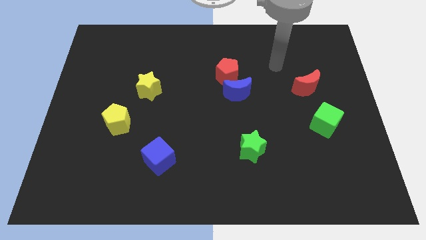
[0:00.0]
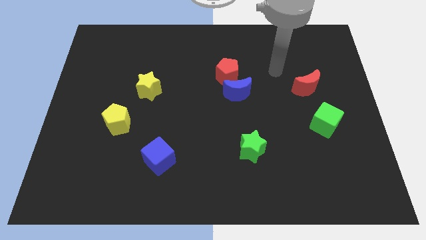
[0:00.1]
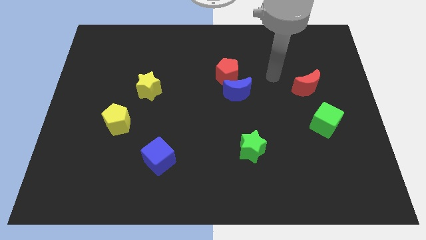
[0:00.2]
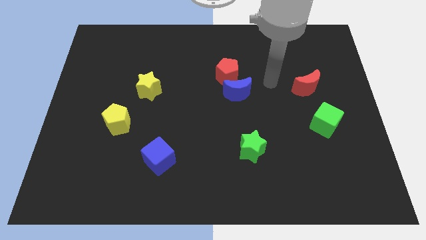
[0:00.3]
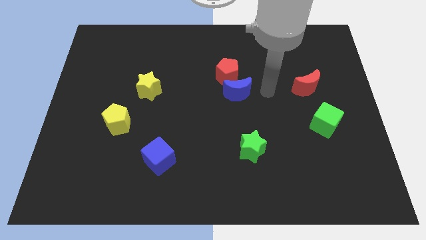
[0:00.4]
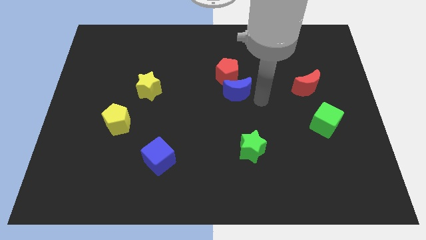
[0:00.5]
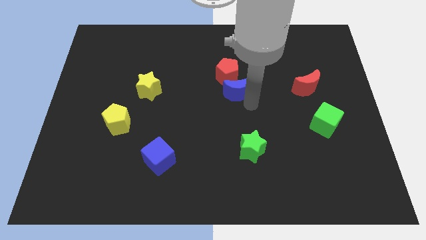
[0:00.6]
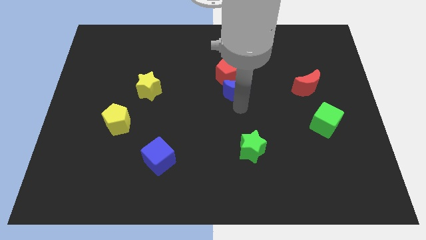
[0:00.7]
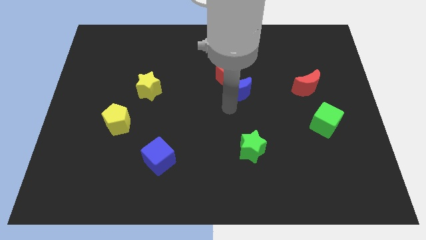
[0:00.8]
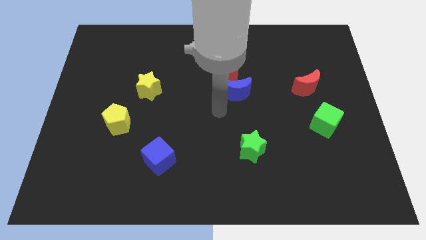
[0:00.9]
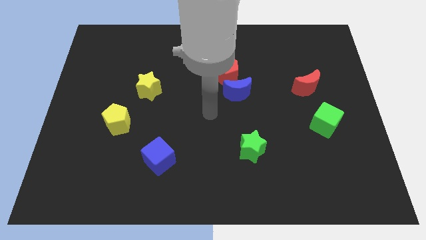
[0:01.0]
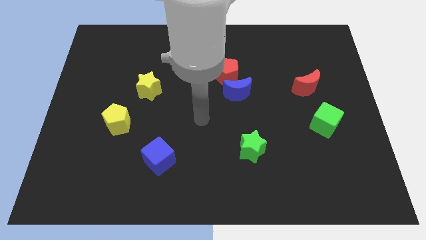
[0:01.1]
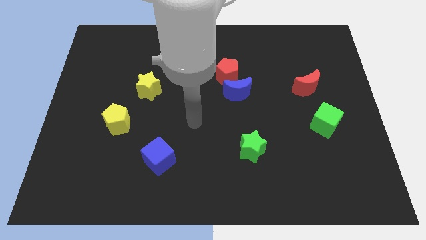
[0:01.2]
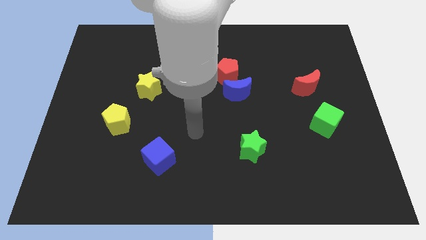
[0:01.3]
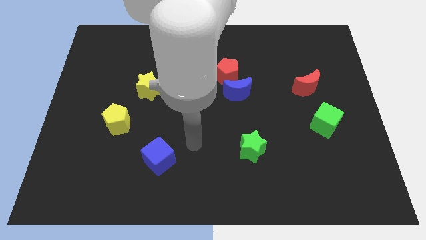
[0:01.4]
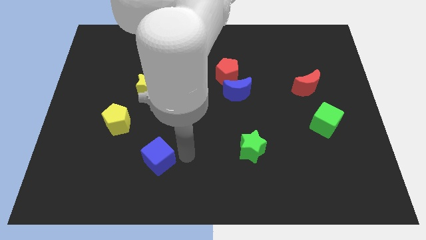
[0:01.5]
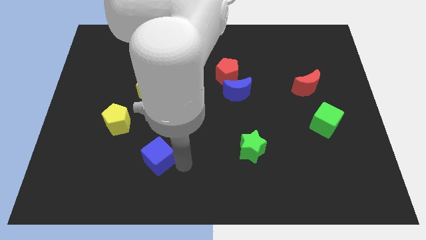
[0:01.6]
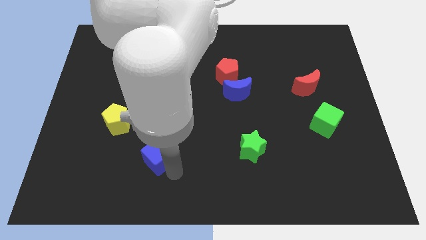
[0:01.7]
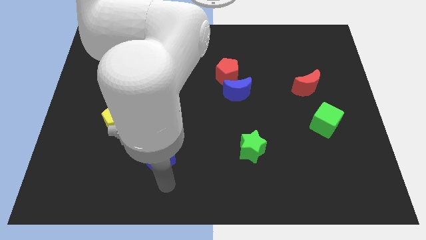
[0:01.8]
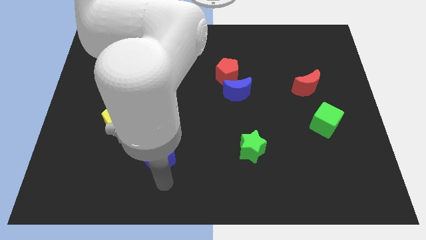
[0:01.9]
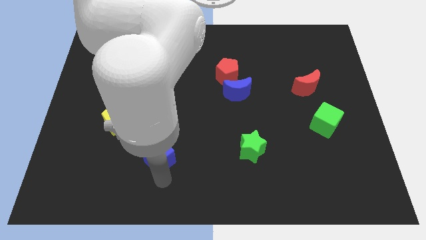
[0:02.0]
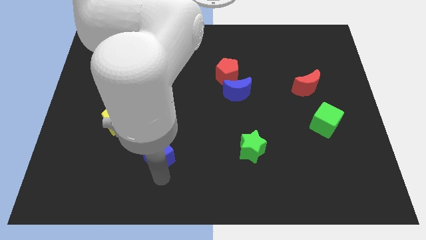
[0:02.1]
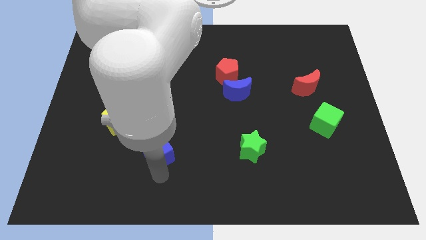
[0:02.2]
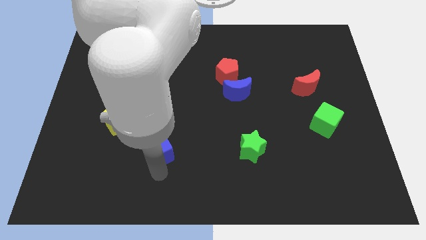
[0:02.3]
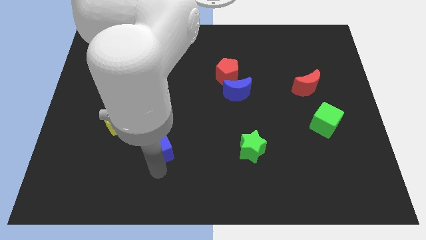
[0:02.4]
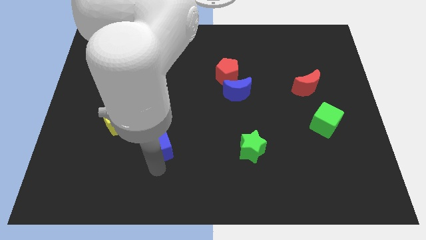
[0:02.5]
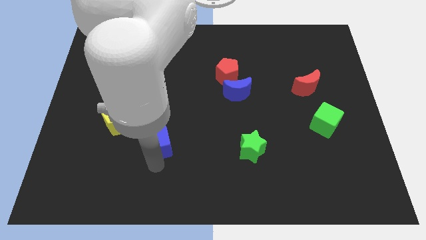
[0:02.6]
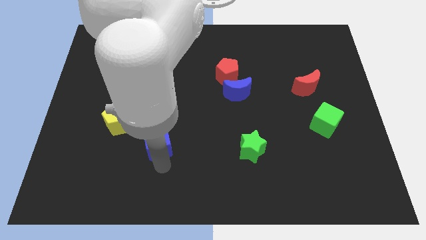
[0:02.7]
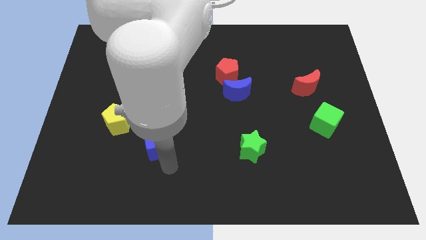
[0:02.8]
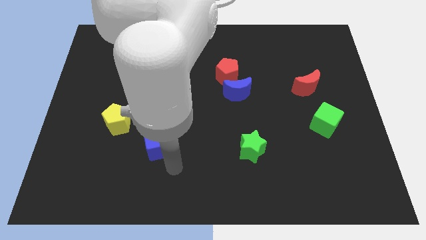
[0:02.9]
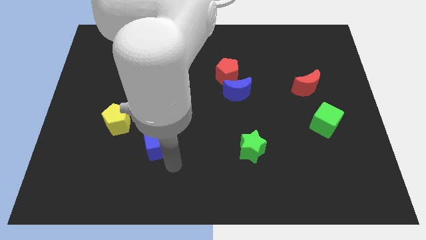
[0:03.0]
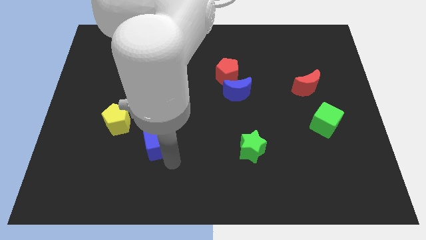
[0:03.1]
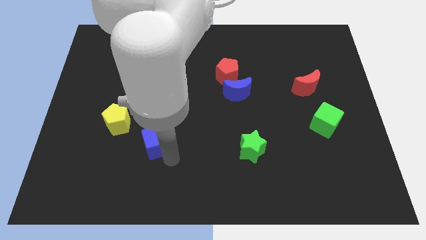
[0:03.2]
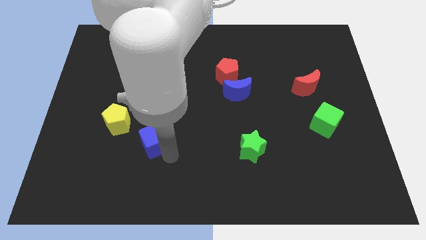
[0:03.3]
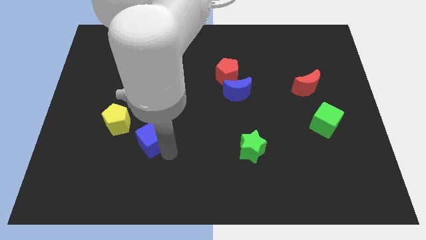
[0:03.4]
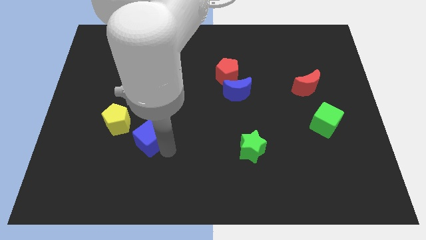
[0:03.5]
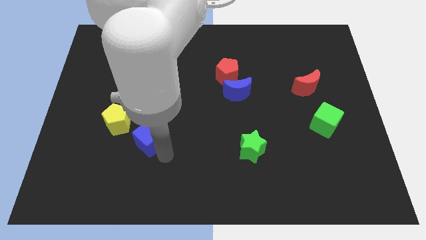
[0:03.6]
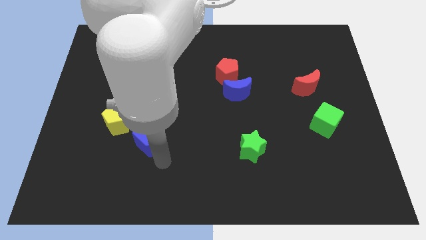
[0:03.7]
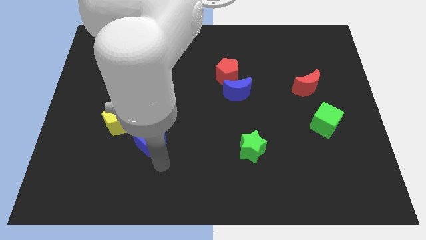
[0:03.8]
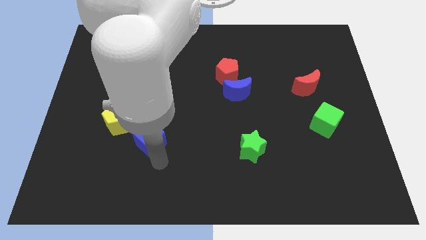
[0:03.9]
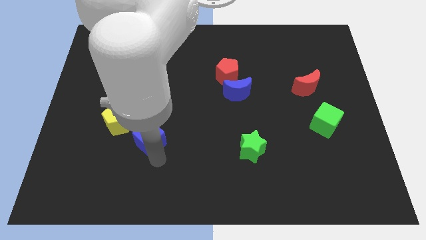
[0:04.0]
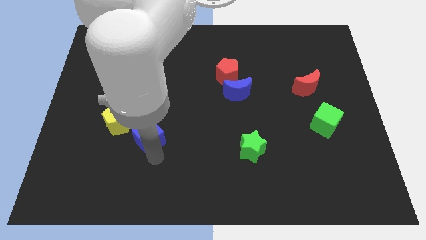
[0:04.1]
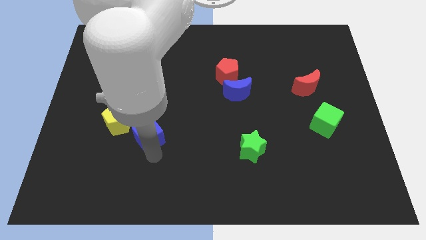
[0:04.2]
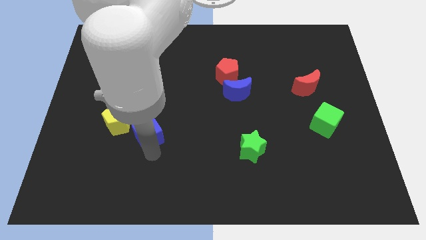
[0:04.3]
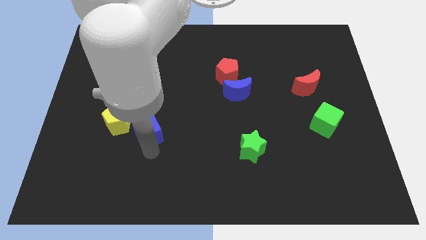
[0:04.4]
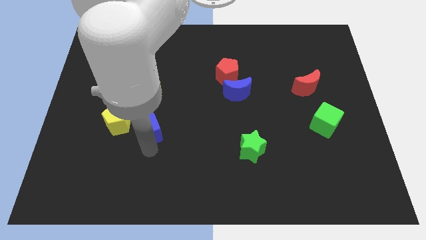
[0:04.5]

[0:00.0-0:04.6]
move the blue cube a little diagonally upwards and to the left

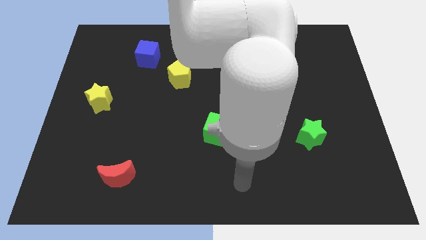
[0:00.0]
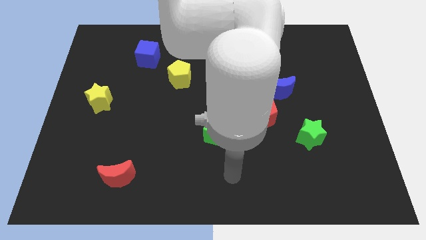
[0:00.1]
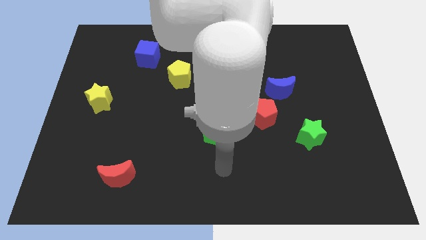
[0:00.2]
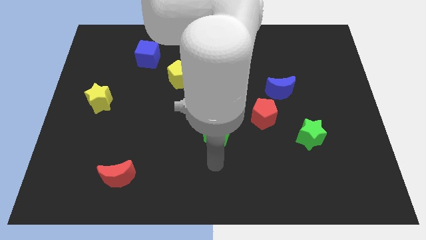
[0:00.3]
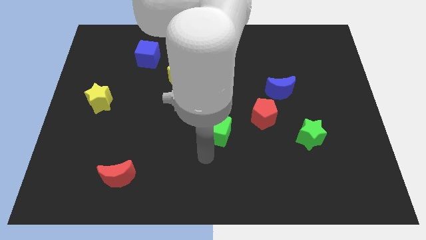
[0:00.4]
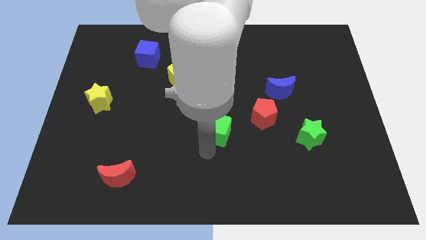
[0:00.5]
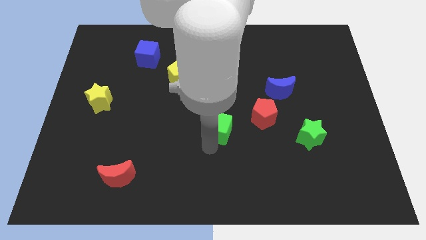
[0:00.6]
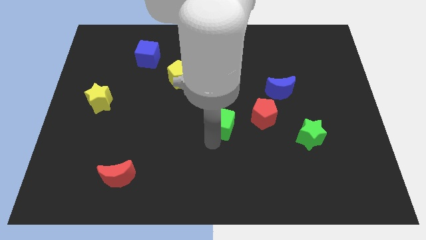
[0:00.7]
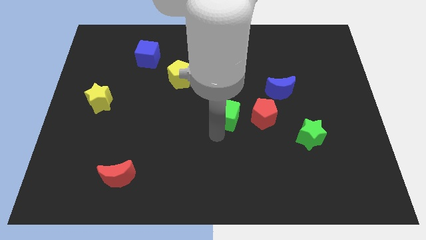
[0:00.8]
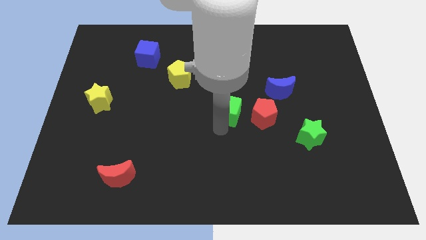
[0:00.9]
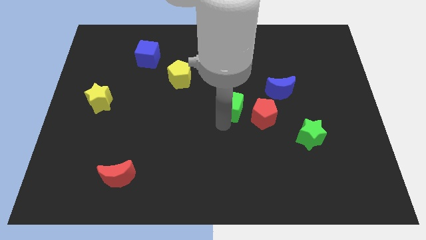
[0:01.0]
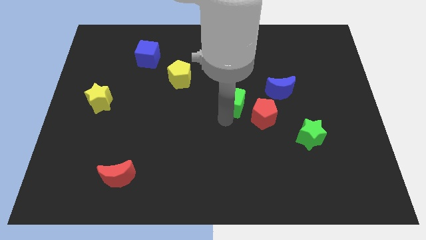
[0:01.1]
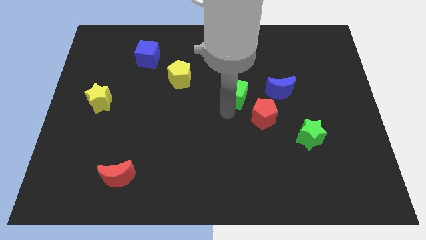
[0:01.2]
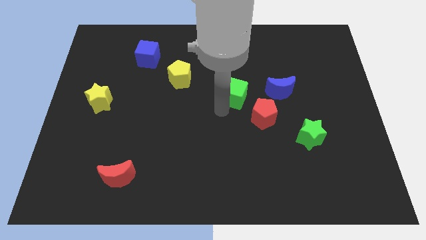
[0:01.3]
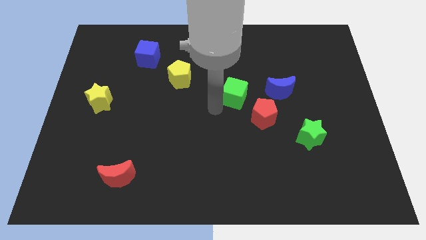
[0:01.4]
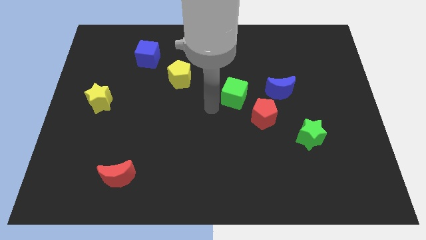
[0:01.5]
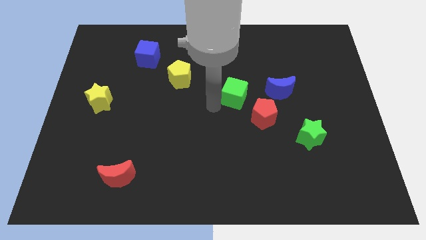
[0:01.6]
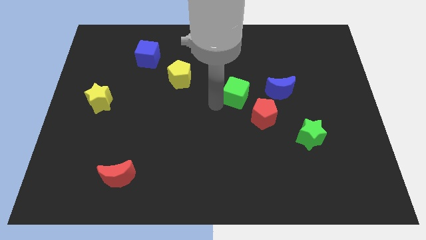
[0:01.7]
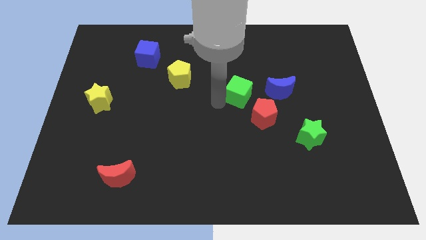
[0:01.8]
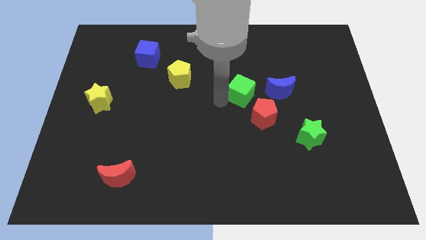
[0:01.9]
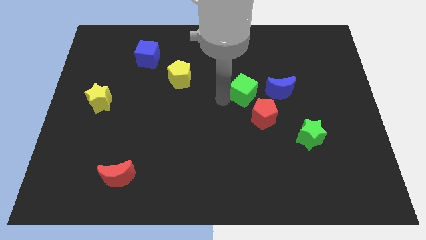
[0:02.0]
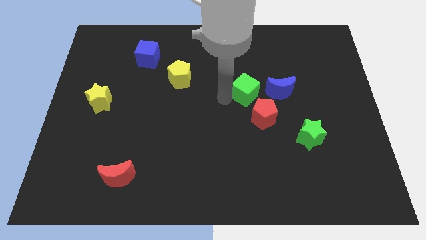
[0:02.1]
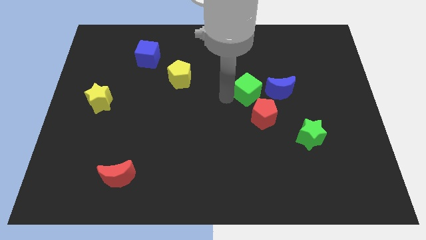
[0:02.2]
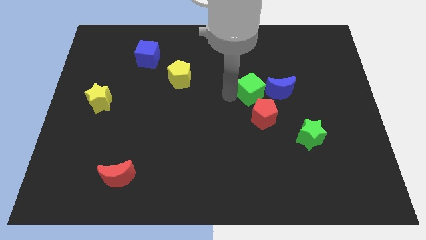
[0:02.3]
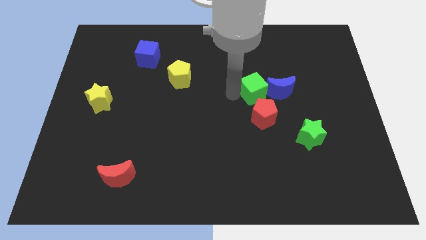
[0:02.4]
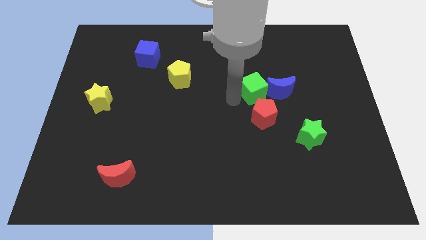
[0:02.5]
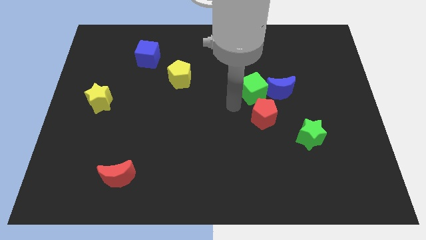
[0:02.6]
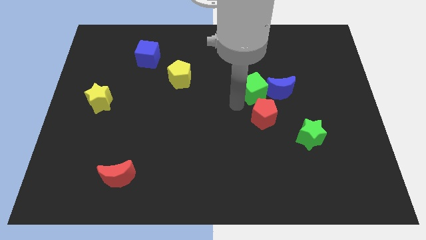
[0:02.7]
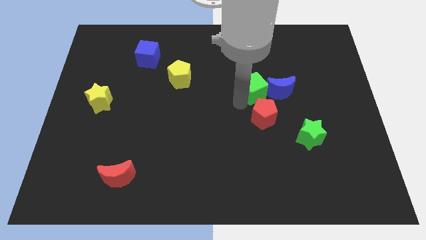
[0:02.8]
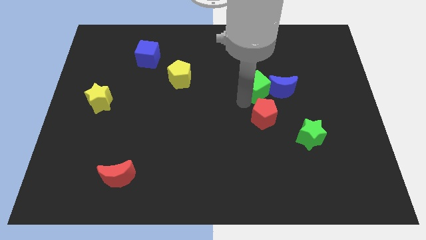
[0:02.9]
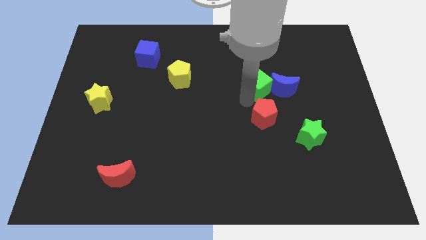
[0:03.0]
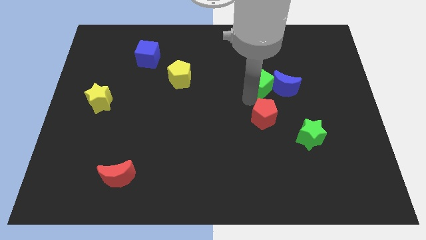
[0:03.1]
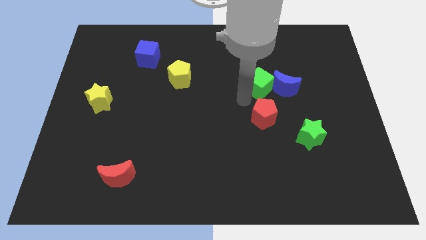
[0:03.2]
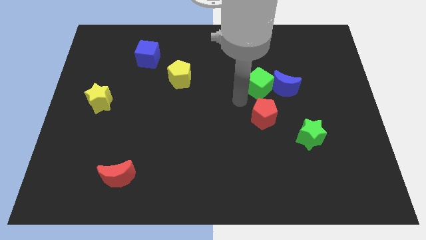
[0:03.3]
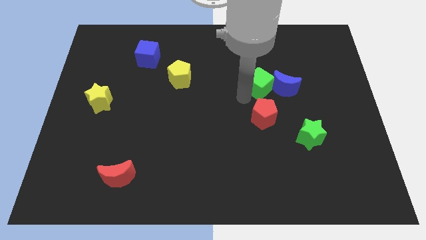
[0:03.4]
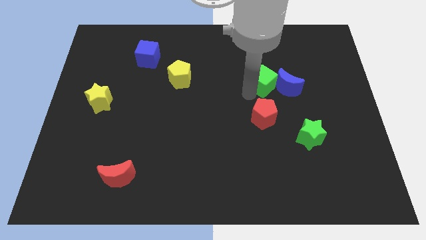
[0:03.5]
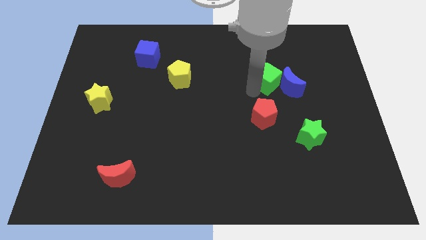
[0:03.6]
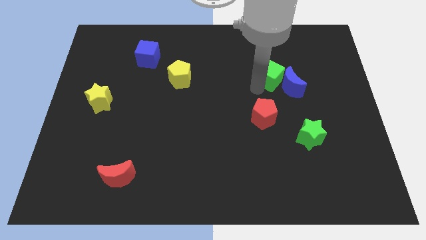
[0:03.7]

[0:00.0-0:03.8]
move the green cube upwards and to the right
